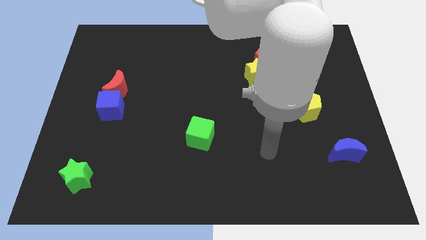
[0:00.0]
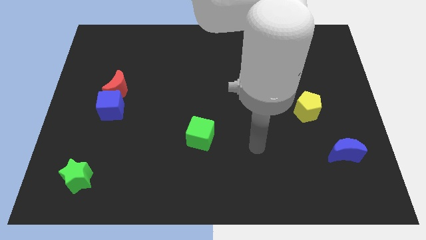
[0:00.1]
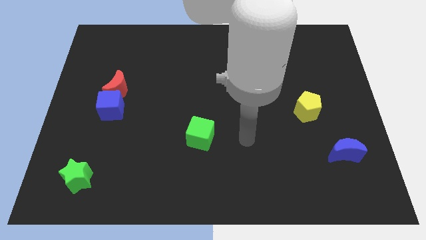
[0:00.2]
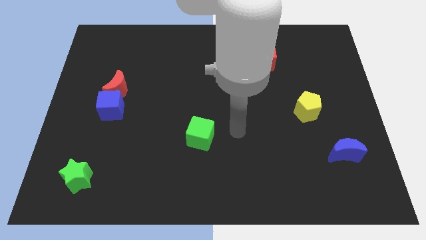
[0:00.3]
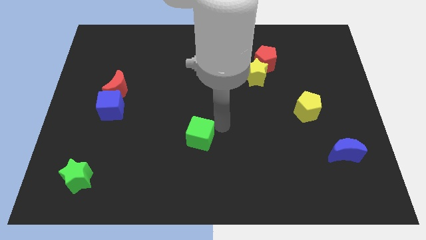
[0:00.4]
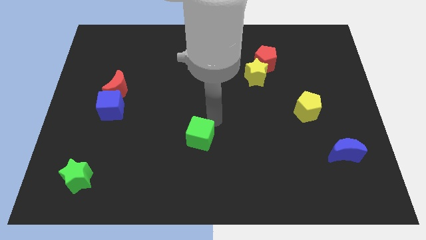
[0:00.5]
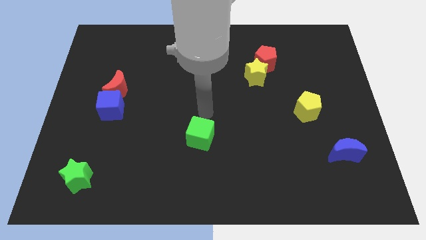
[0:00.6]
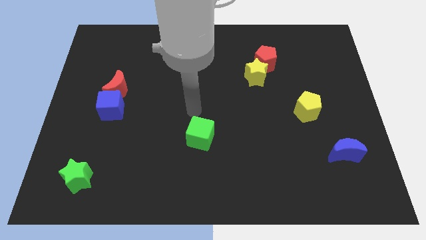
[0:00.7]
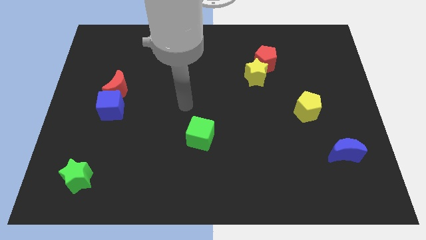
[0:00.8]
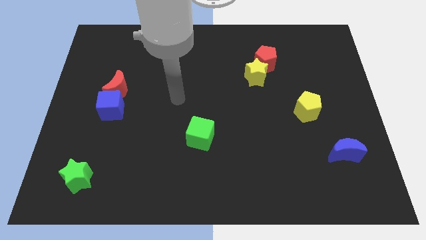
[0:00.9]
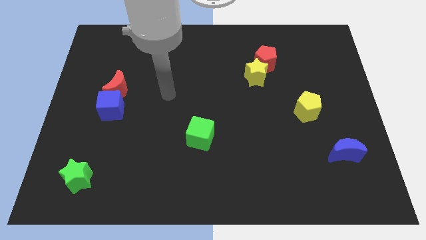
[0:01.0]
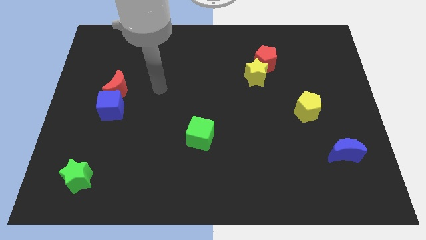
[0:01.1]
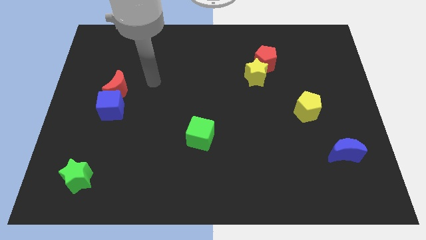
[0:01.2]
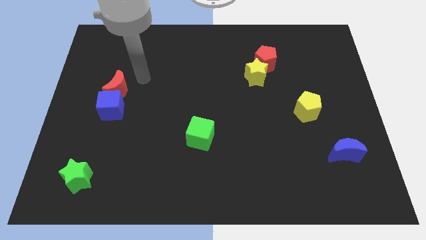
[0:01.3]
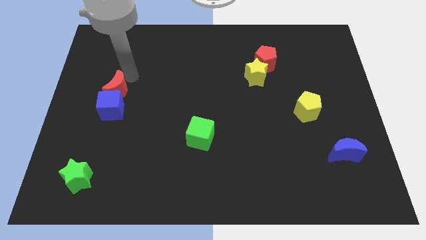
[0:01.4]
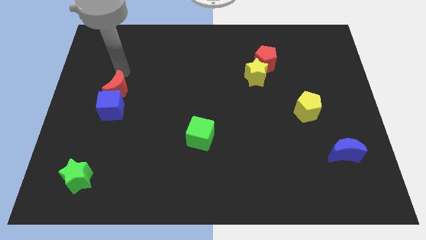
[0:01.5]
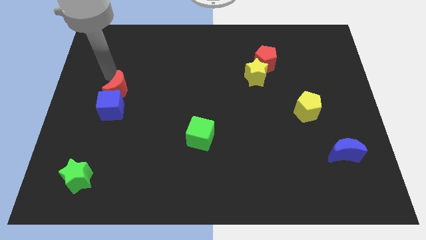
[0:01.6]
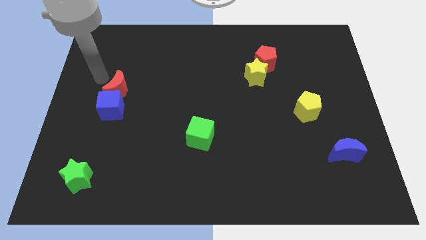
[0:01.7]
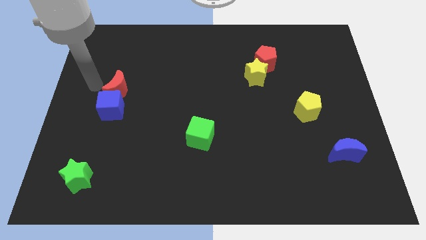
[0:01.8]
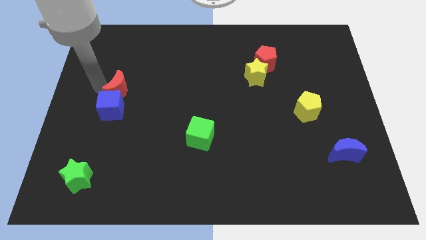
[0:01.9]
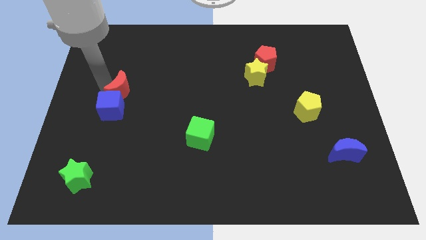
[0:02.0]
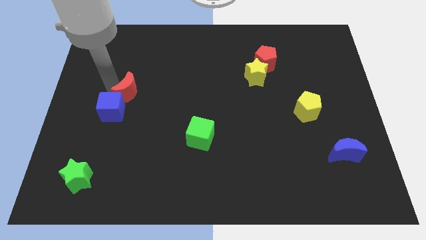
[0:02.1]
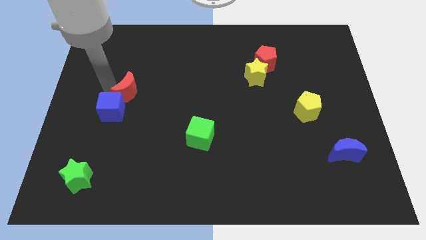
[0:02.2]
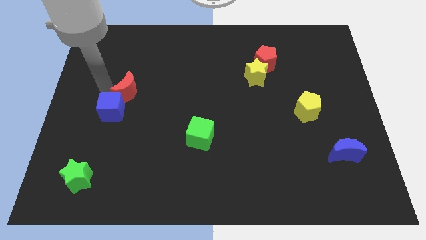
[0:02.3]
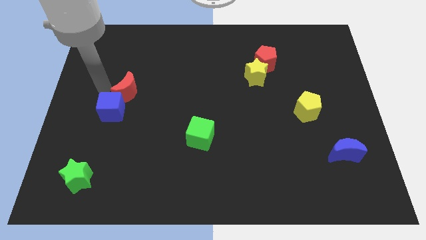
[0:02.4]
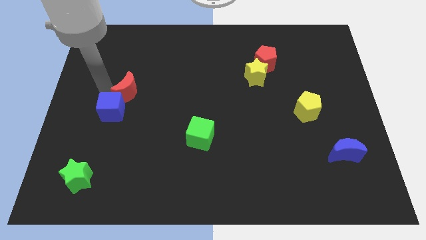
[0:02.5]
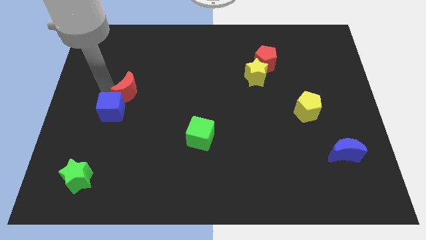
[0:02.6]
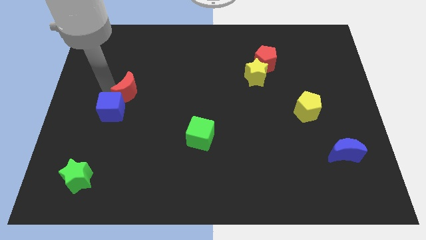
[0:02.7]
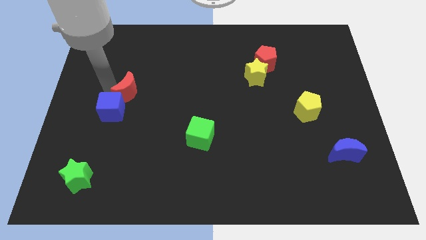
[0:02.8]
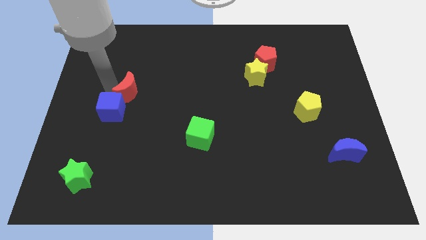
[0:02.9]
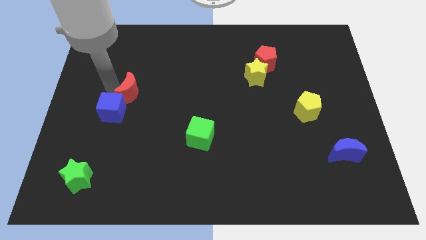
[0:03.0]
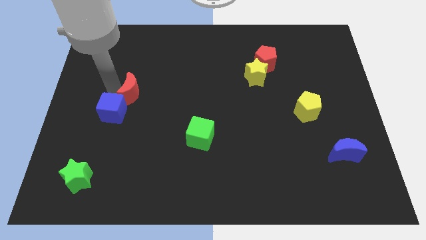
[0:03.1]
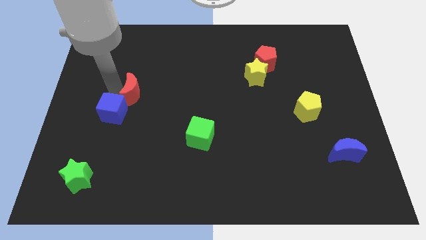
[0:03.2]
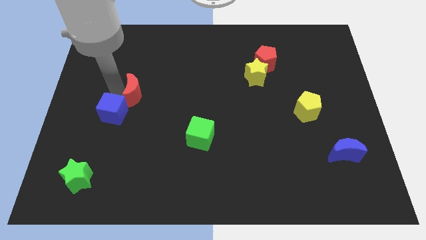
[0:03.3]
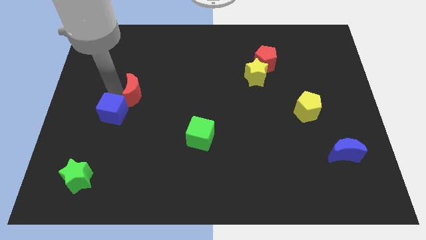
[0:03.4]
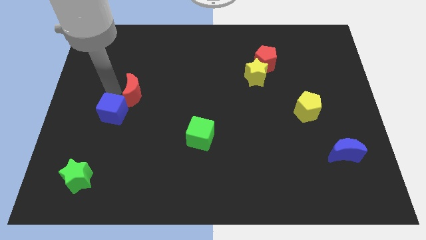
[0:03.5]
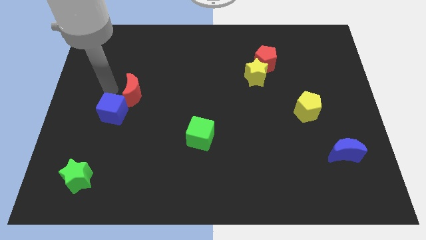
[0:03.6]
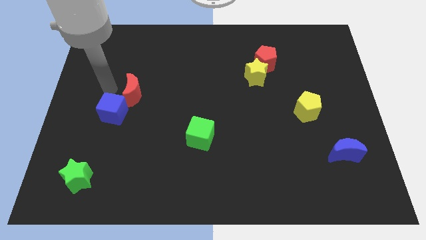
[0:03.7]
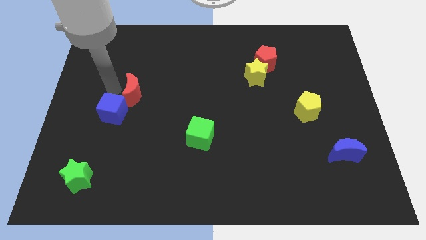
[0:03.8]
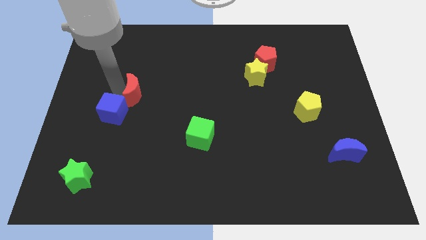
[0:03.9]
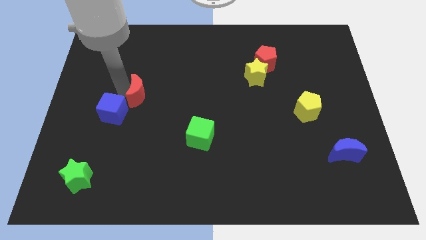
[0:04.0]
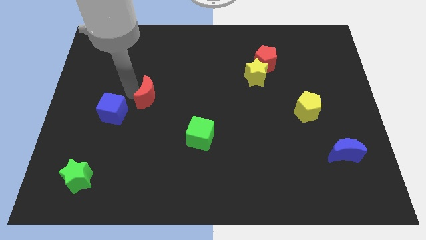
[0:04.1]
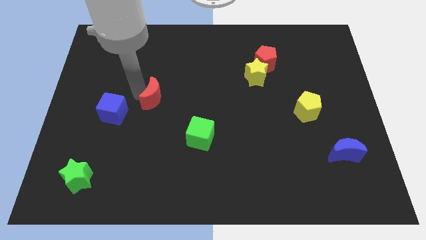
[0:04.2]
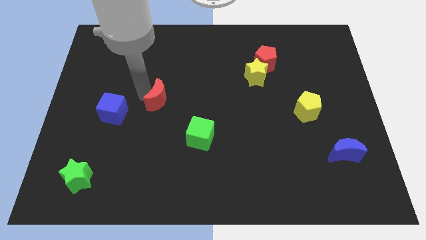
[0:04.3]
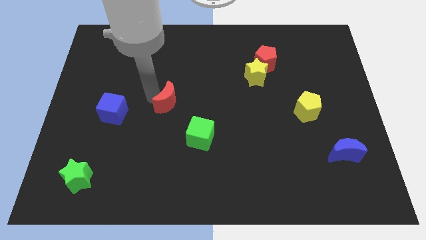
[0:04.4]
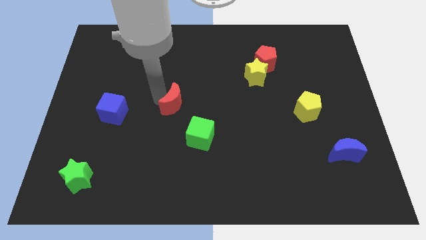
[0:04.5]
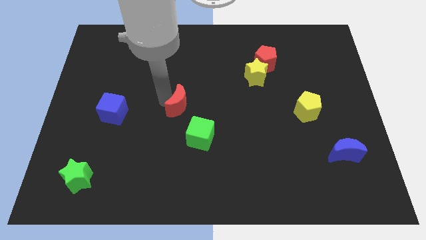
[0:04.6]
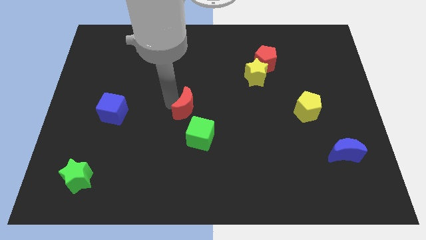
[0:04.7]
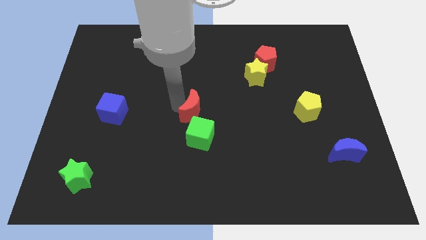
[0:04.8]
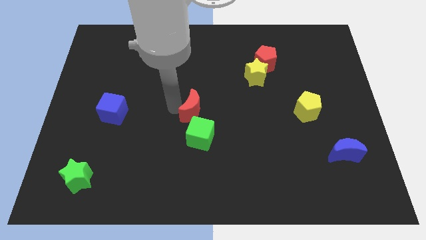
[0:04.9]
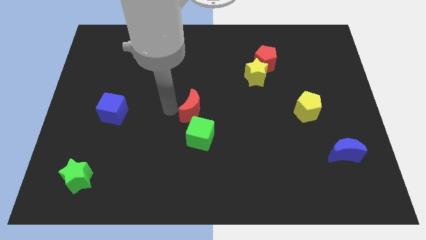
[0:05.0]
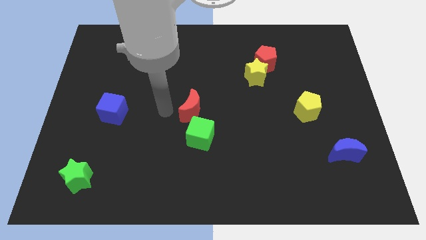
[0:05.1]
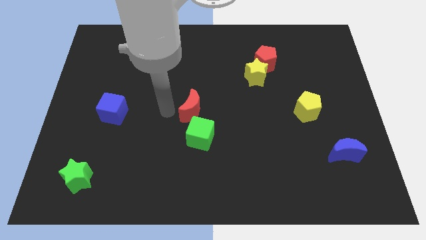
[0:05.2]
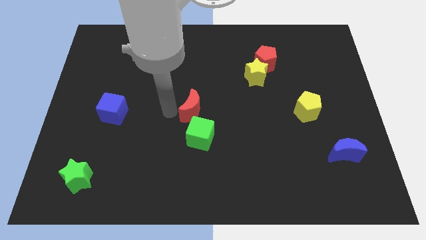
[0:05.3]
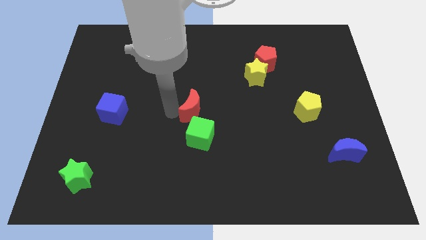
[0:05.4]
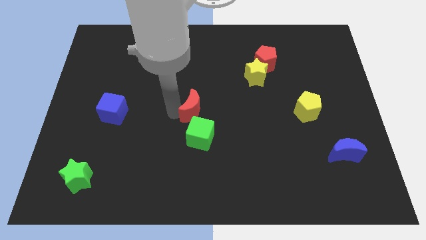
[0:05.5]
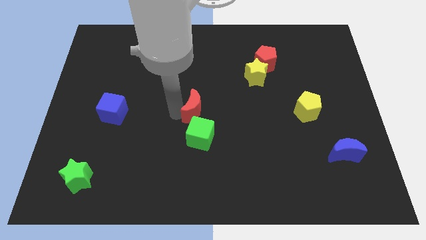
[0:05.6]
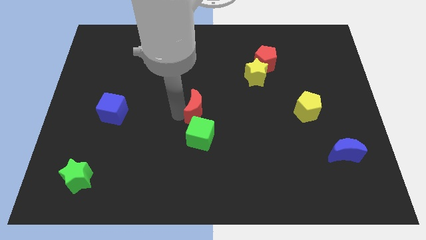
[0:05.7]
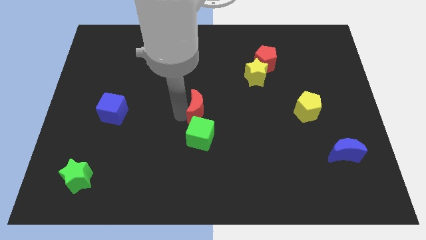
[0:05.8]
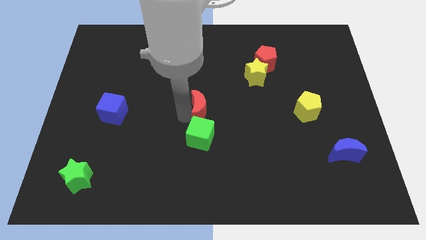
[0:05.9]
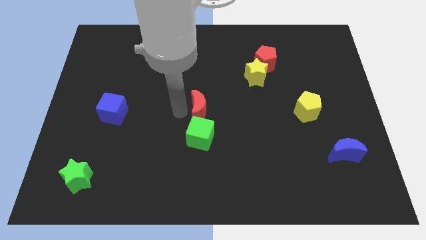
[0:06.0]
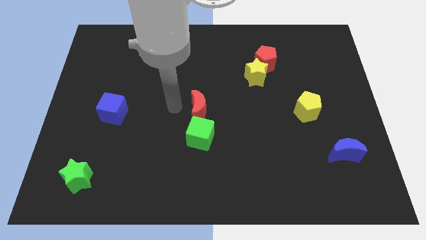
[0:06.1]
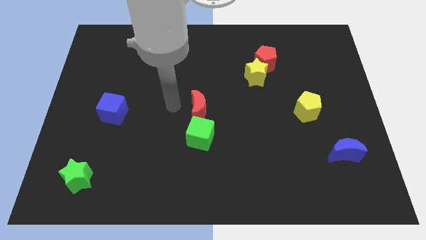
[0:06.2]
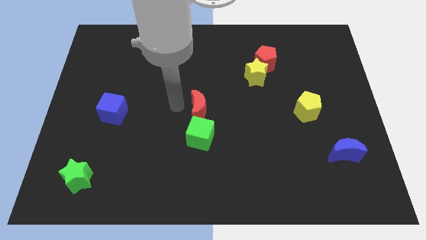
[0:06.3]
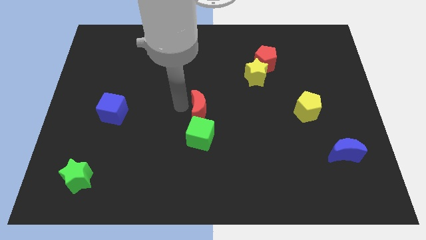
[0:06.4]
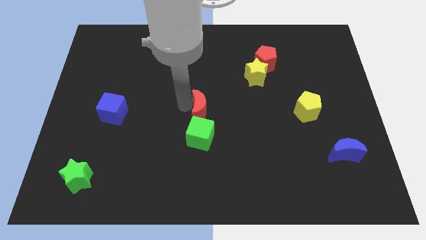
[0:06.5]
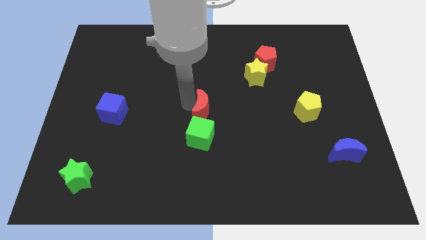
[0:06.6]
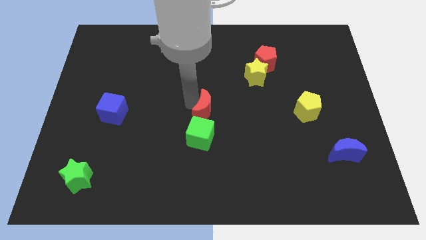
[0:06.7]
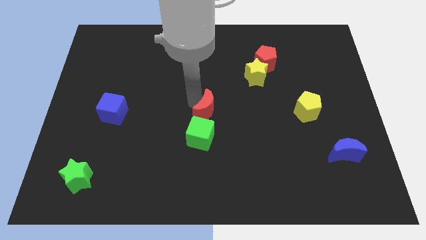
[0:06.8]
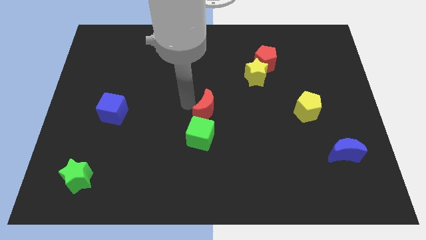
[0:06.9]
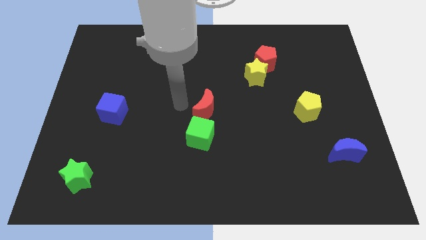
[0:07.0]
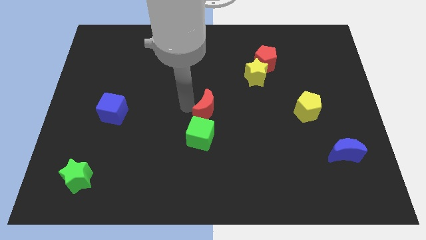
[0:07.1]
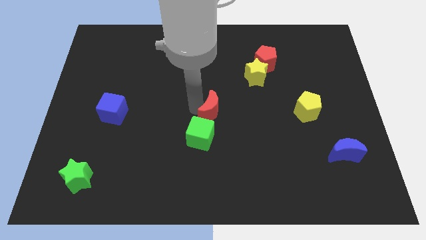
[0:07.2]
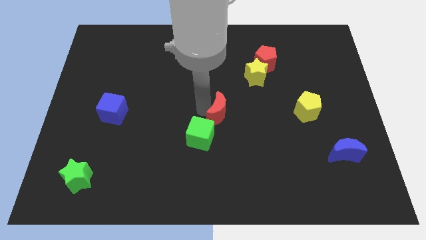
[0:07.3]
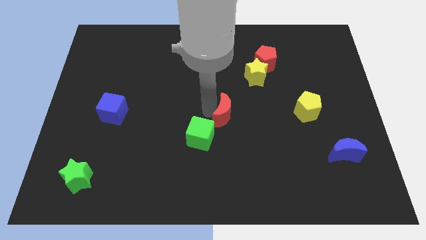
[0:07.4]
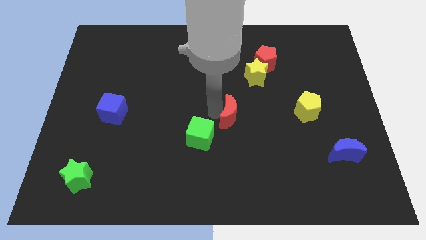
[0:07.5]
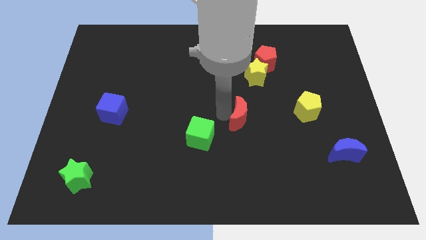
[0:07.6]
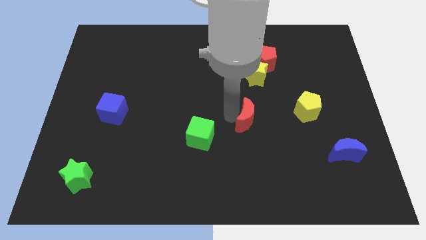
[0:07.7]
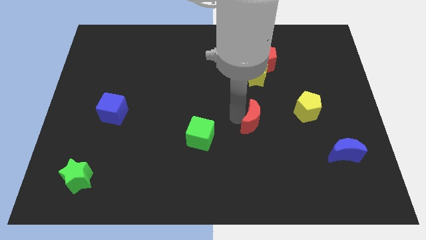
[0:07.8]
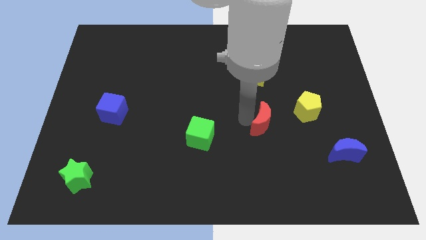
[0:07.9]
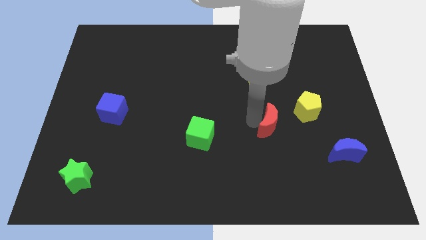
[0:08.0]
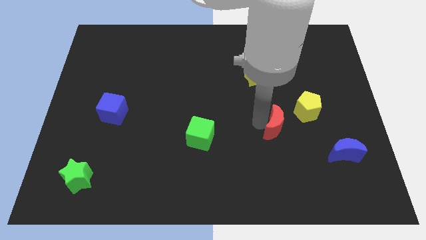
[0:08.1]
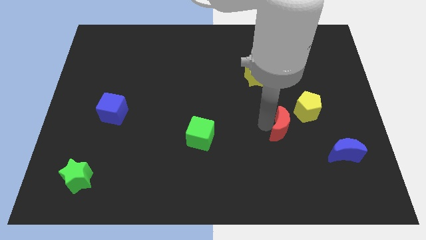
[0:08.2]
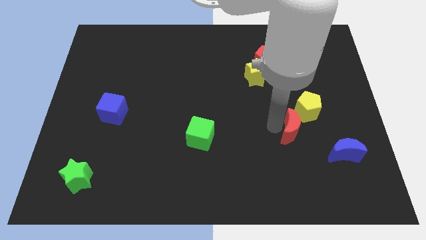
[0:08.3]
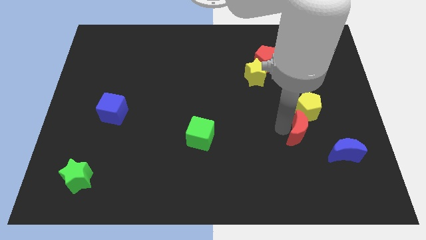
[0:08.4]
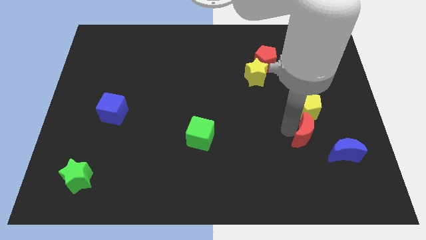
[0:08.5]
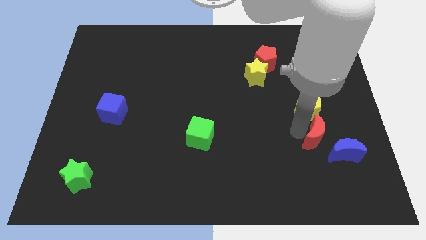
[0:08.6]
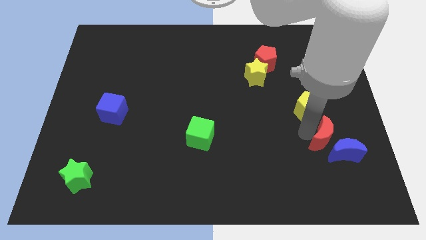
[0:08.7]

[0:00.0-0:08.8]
slide the red moon towards the blue moon
